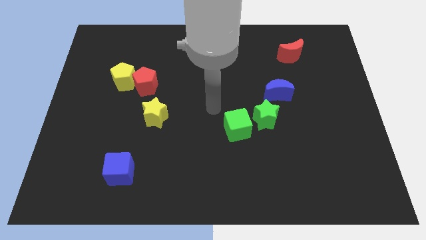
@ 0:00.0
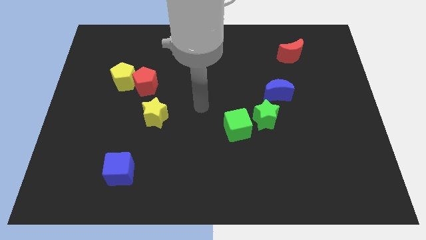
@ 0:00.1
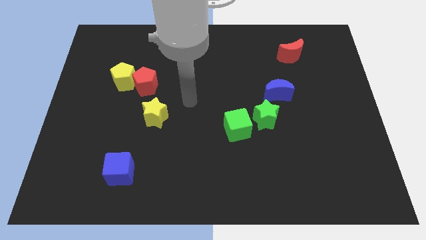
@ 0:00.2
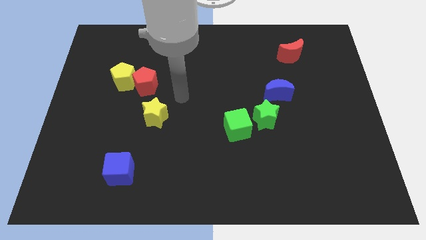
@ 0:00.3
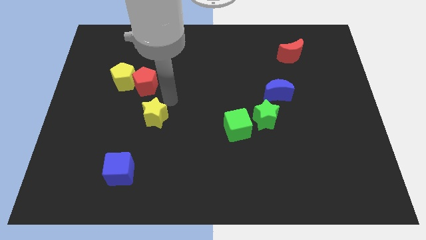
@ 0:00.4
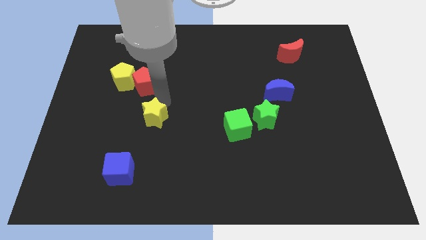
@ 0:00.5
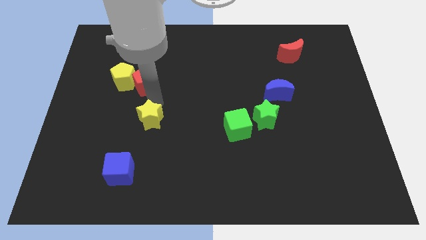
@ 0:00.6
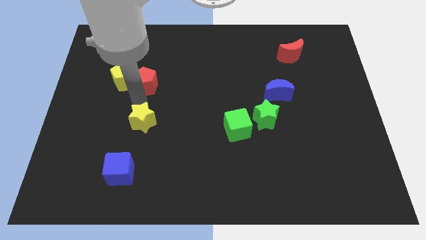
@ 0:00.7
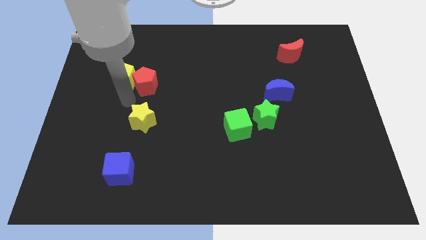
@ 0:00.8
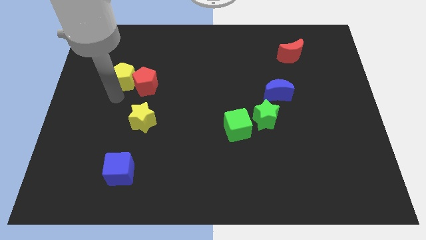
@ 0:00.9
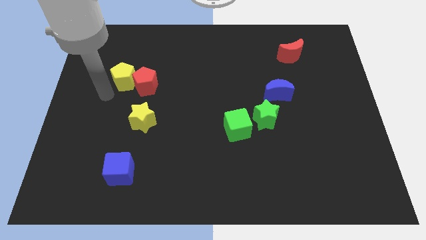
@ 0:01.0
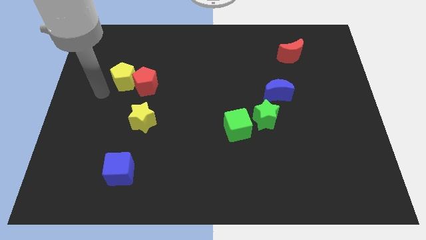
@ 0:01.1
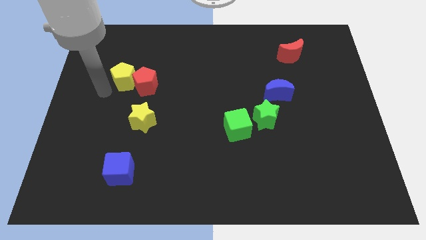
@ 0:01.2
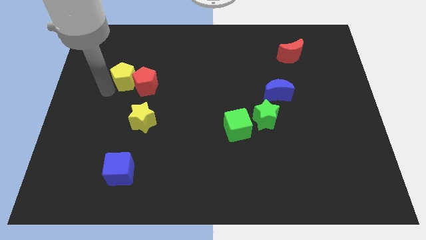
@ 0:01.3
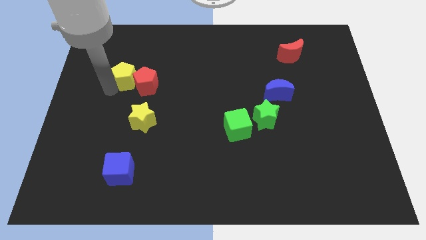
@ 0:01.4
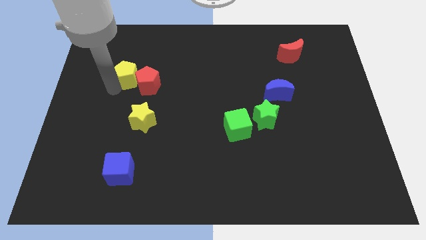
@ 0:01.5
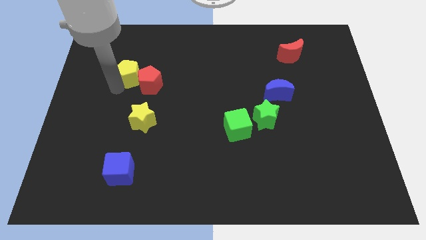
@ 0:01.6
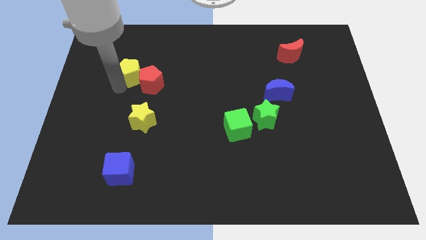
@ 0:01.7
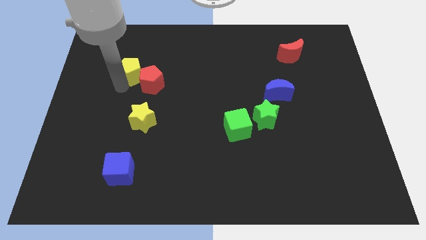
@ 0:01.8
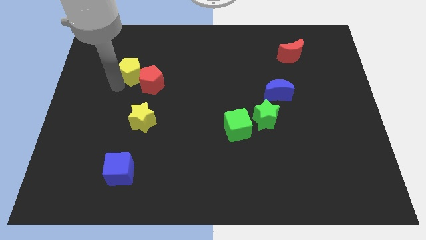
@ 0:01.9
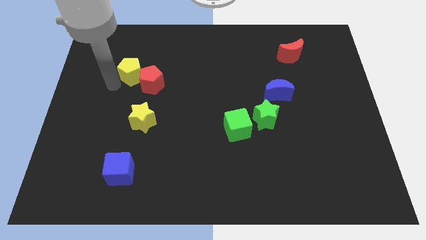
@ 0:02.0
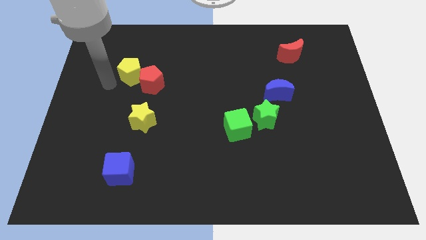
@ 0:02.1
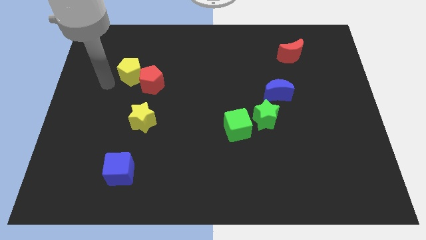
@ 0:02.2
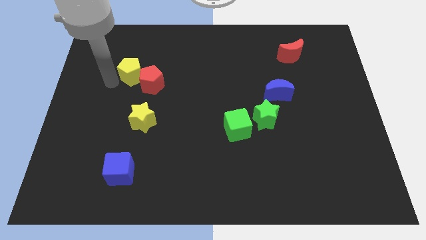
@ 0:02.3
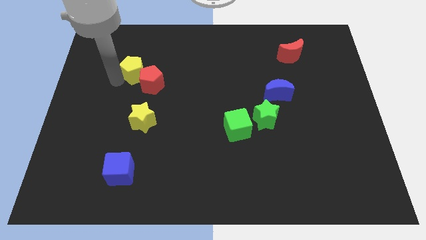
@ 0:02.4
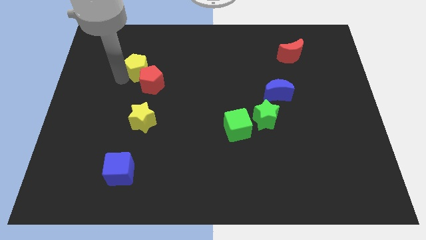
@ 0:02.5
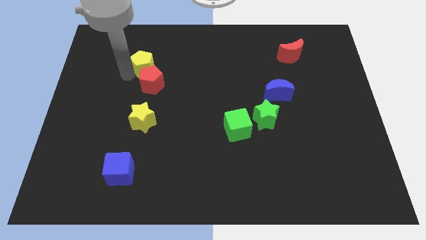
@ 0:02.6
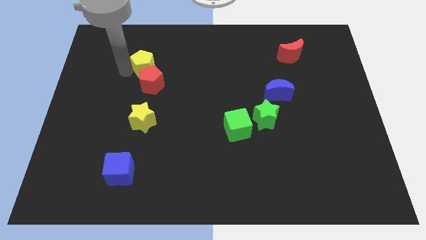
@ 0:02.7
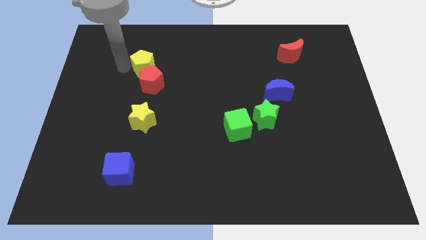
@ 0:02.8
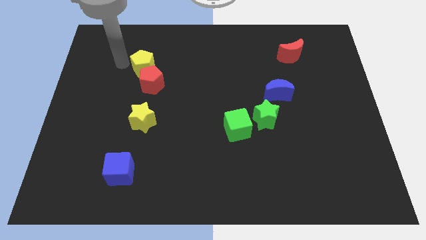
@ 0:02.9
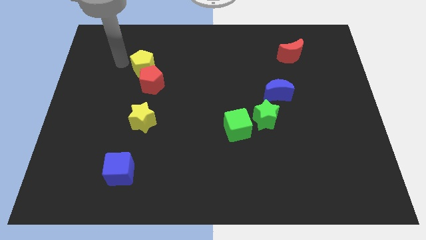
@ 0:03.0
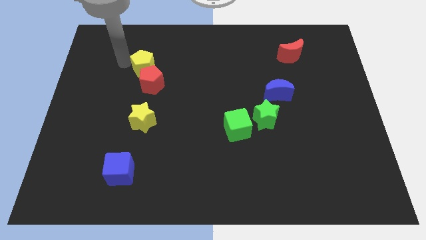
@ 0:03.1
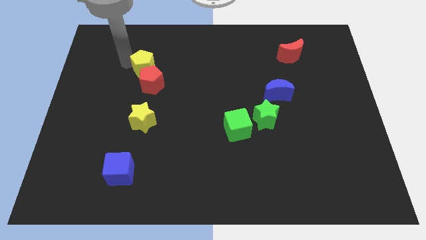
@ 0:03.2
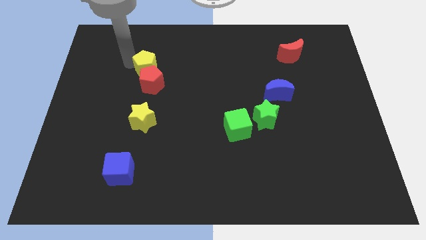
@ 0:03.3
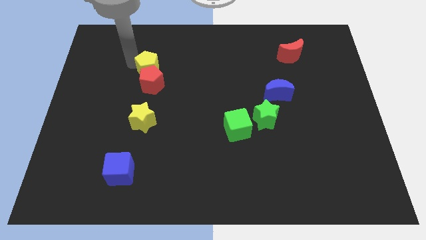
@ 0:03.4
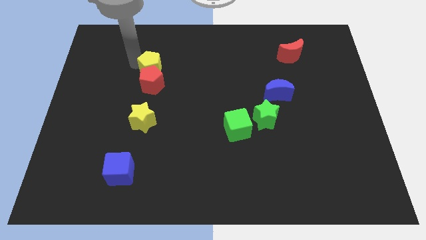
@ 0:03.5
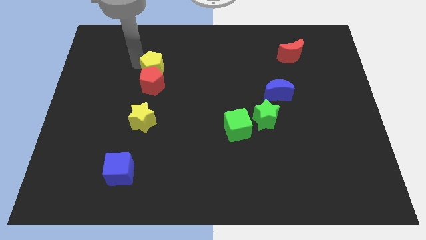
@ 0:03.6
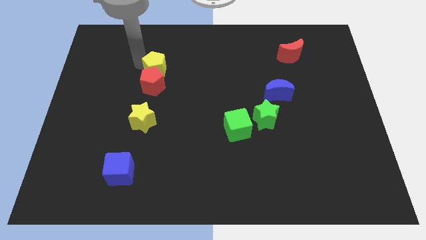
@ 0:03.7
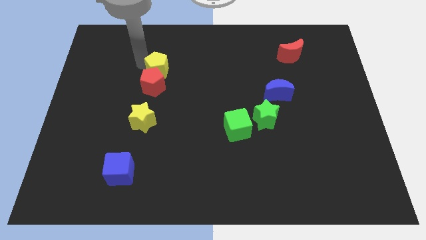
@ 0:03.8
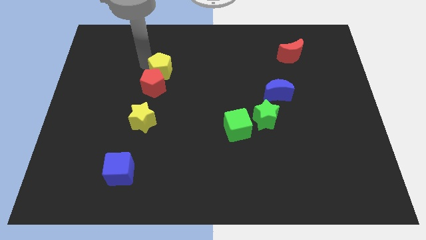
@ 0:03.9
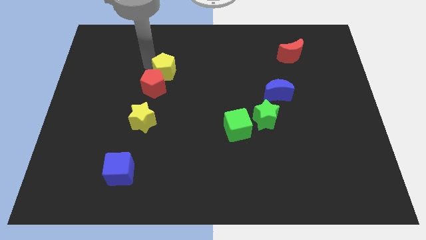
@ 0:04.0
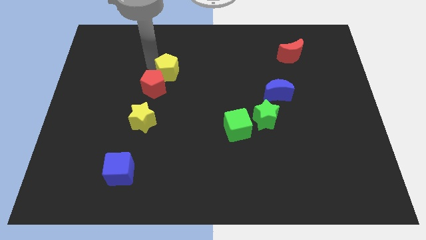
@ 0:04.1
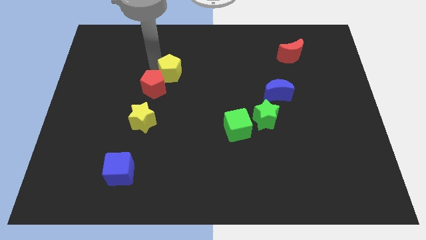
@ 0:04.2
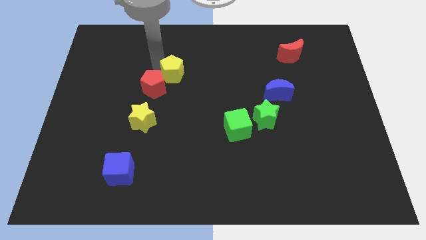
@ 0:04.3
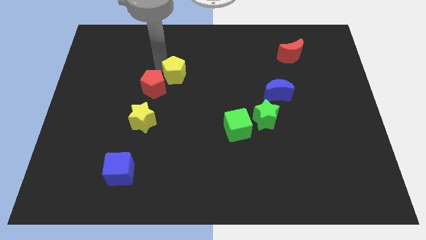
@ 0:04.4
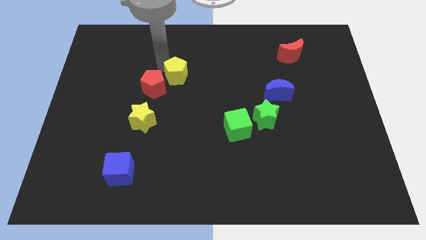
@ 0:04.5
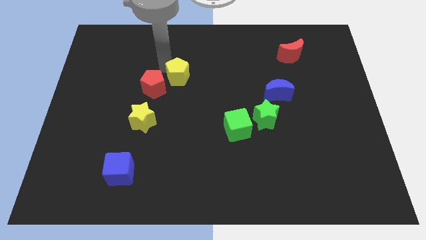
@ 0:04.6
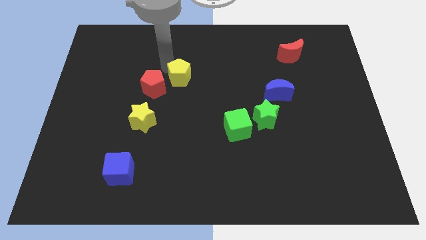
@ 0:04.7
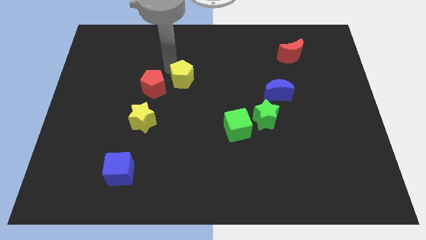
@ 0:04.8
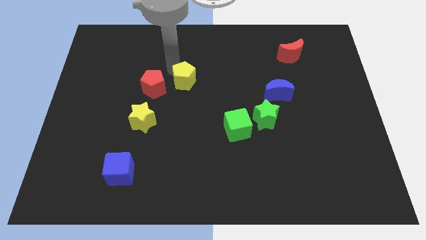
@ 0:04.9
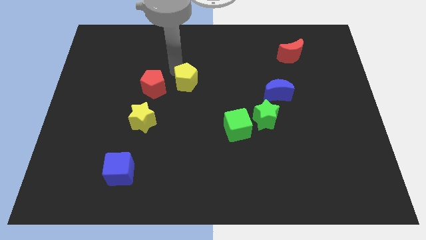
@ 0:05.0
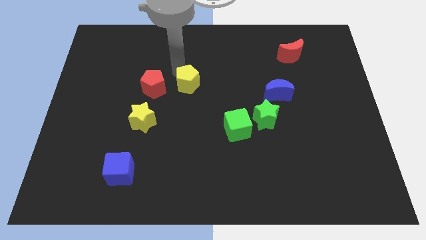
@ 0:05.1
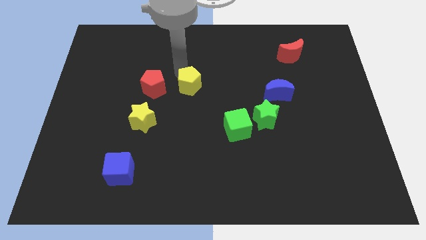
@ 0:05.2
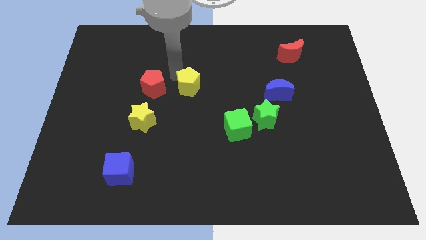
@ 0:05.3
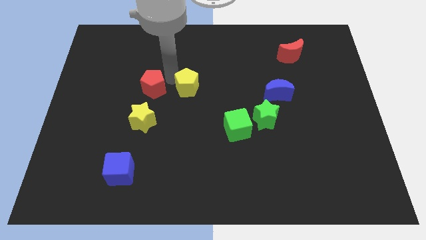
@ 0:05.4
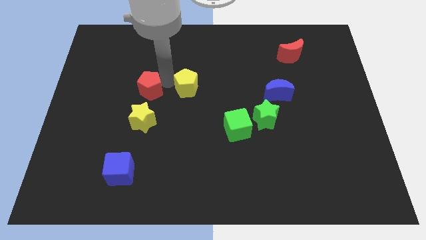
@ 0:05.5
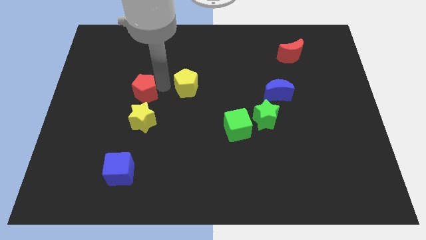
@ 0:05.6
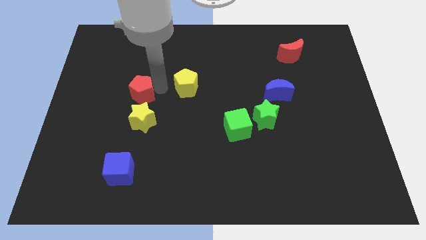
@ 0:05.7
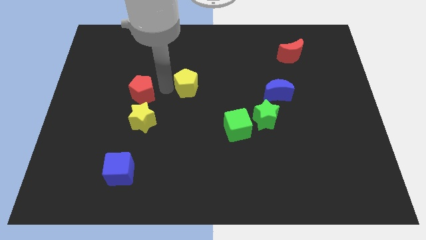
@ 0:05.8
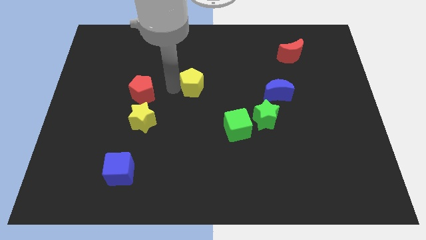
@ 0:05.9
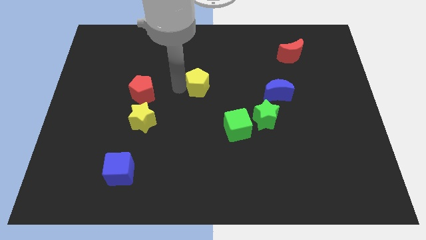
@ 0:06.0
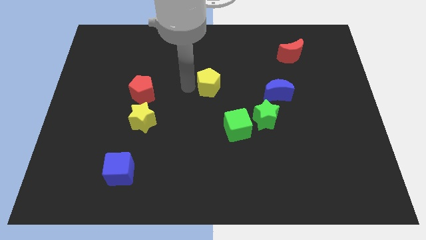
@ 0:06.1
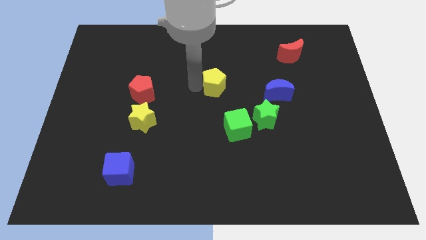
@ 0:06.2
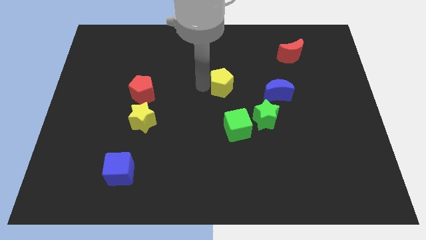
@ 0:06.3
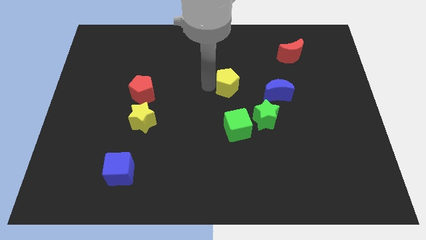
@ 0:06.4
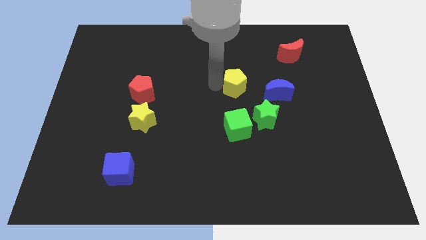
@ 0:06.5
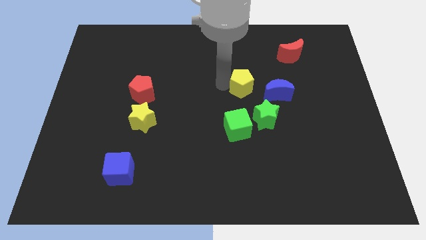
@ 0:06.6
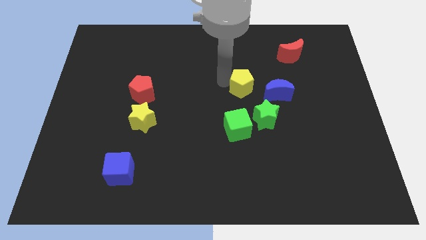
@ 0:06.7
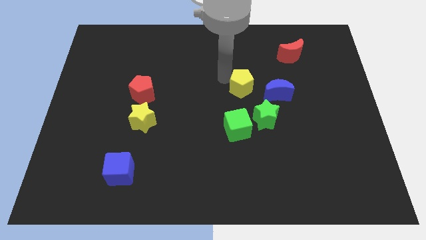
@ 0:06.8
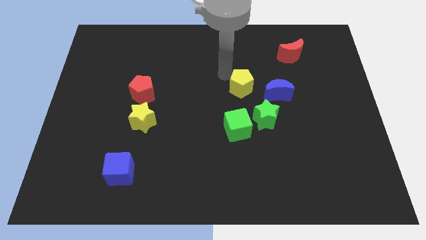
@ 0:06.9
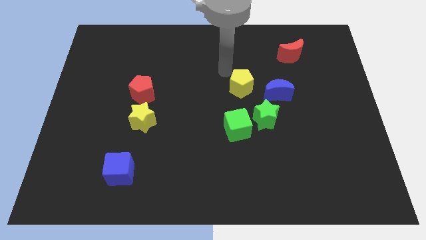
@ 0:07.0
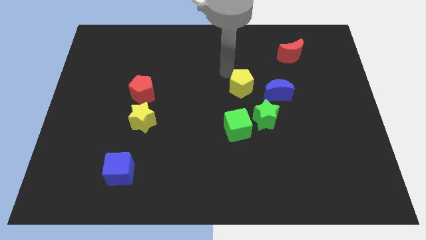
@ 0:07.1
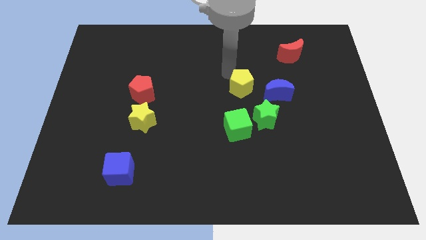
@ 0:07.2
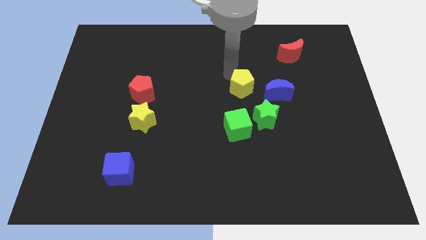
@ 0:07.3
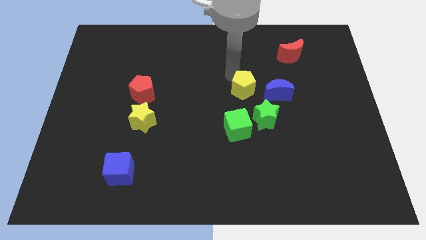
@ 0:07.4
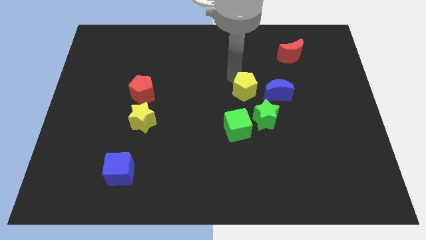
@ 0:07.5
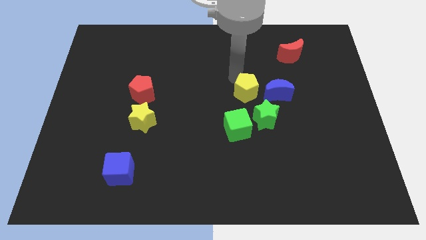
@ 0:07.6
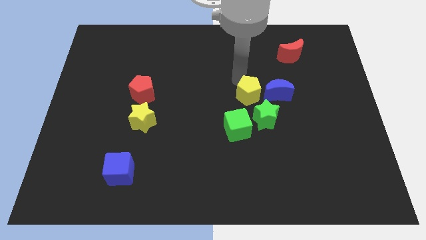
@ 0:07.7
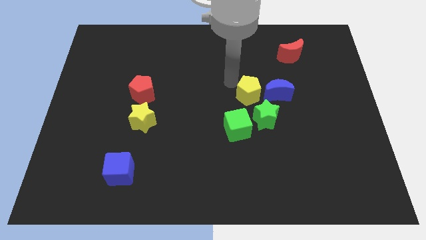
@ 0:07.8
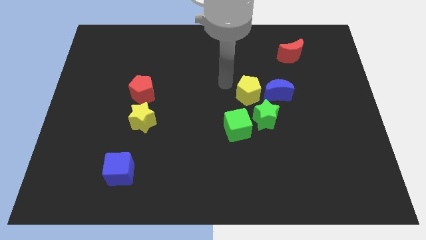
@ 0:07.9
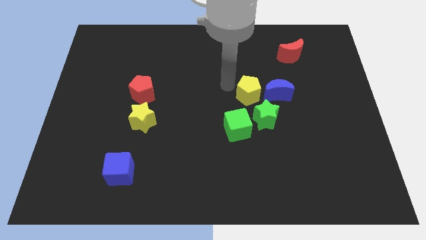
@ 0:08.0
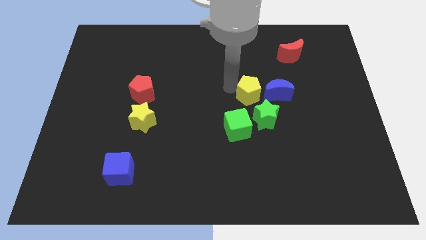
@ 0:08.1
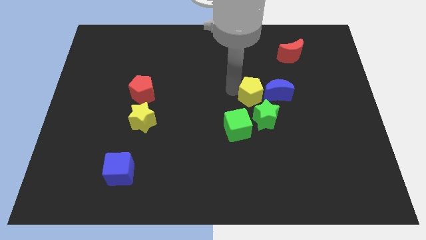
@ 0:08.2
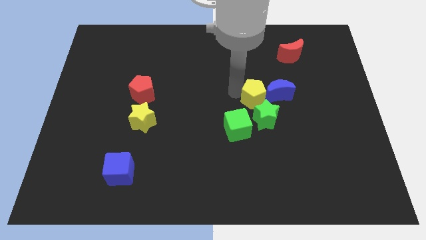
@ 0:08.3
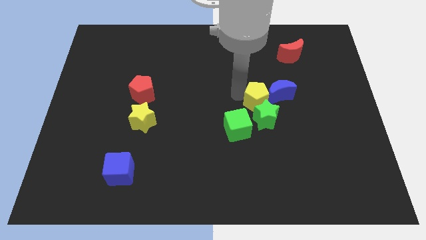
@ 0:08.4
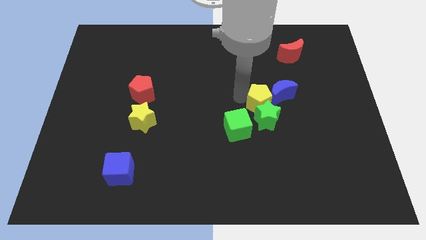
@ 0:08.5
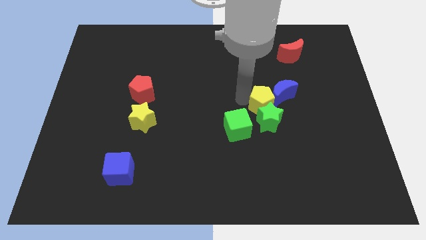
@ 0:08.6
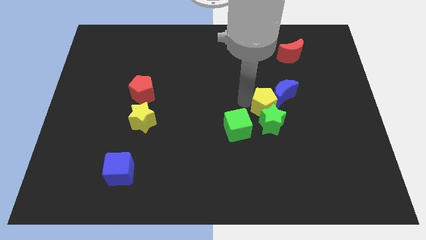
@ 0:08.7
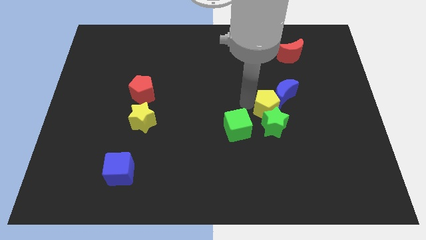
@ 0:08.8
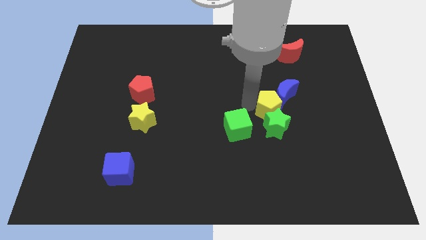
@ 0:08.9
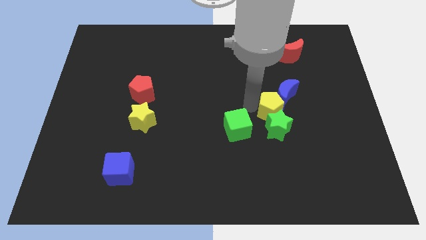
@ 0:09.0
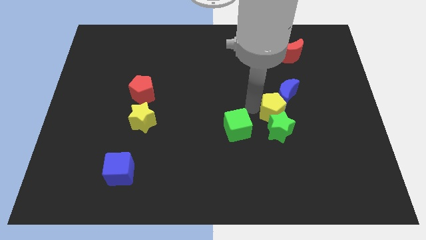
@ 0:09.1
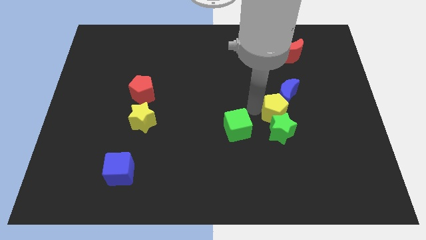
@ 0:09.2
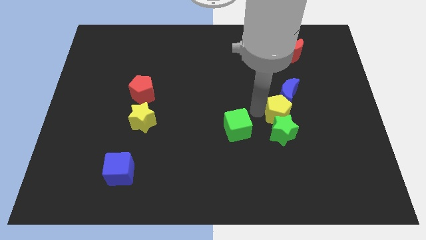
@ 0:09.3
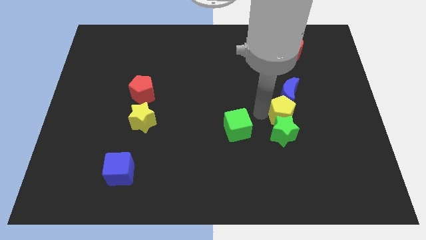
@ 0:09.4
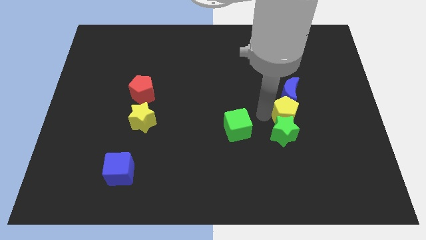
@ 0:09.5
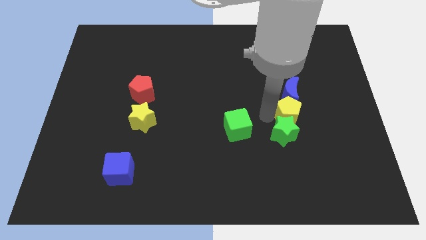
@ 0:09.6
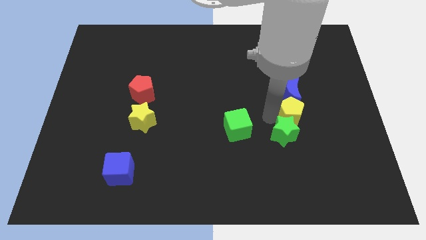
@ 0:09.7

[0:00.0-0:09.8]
slide the yellow pentagon diagonally down and to the right of the blue moon
